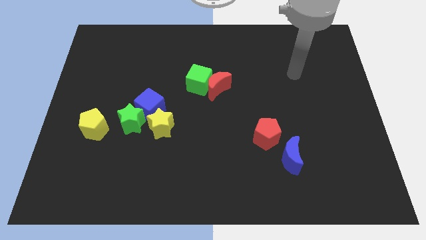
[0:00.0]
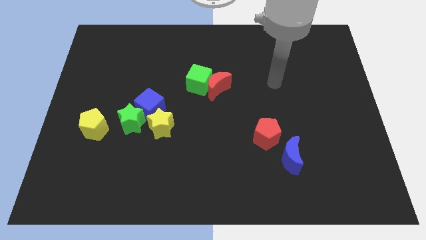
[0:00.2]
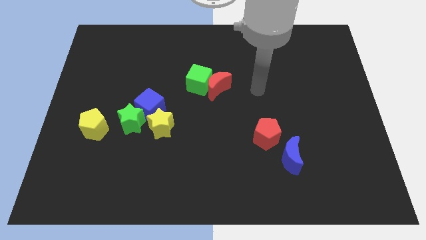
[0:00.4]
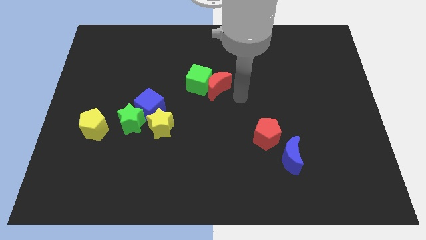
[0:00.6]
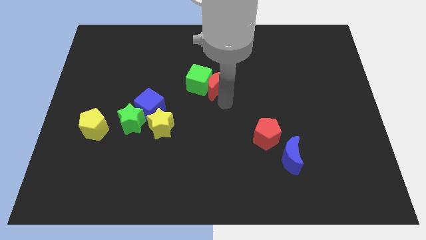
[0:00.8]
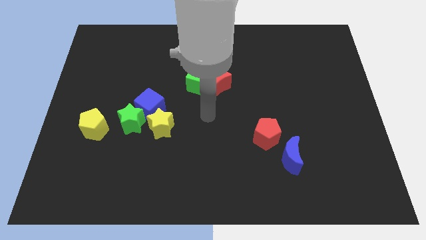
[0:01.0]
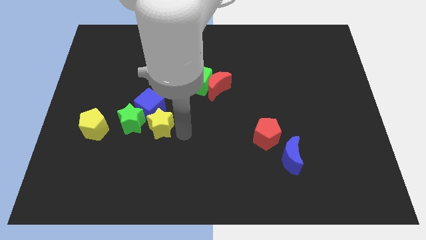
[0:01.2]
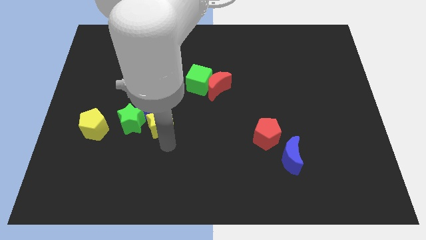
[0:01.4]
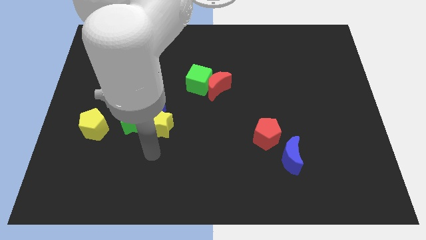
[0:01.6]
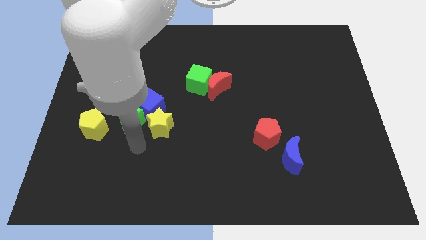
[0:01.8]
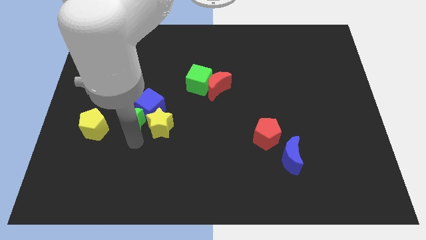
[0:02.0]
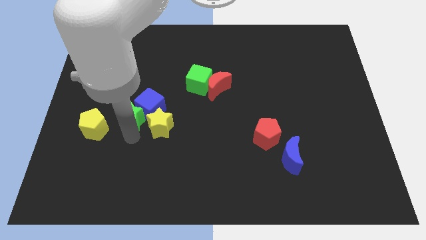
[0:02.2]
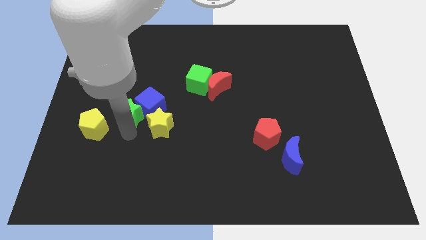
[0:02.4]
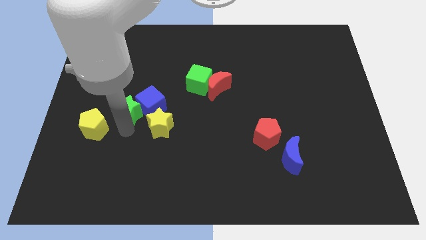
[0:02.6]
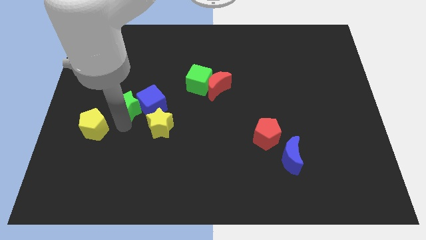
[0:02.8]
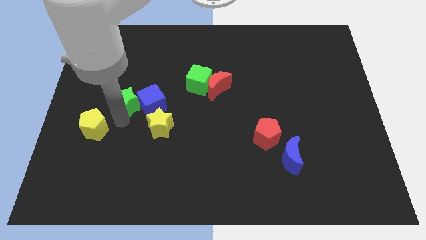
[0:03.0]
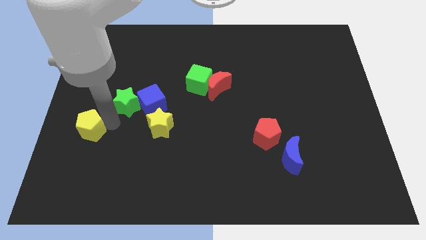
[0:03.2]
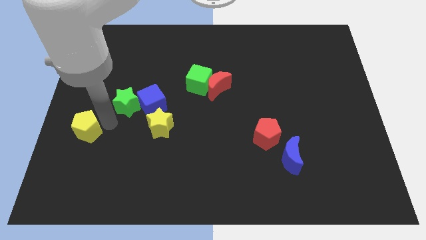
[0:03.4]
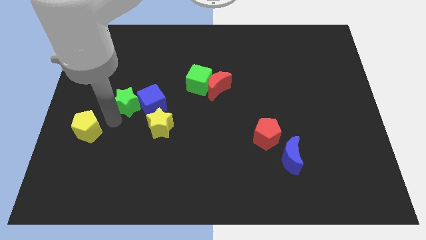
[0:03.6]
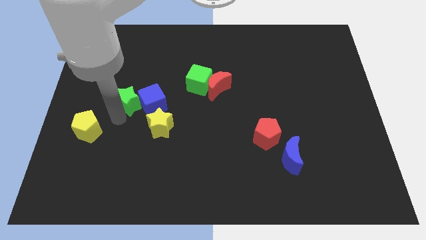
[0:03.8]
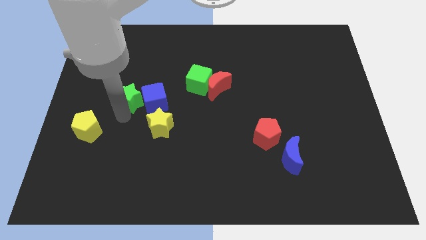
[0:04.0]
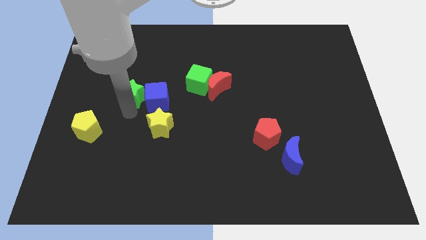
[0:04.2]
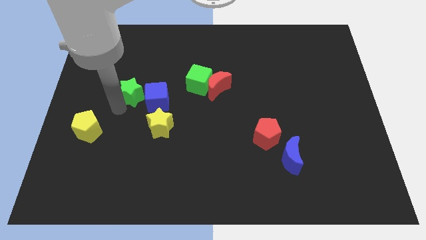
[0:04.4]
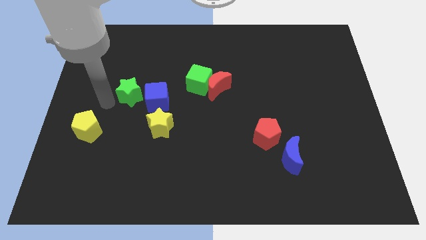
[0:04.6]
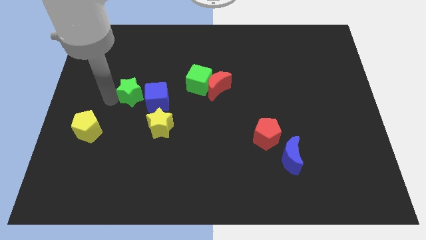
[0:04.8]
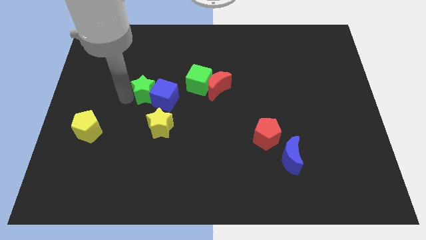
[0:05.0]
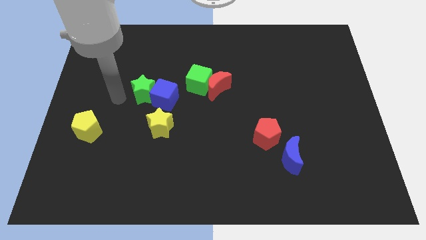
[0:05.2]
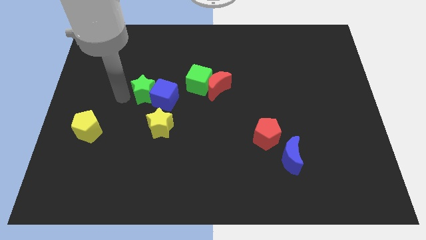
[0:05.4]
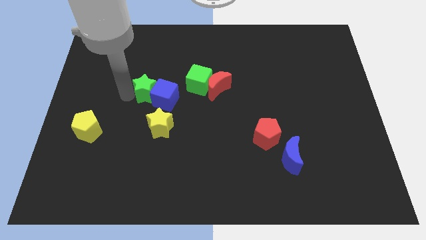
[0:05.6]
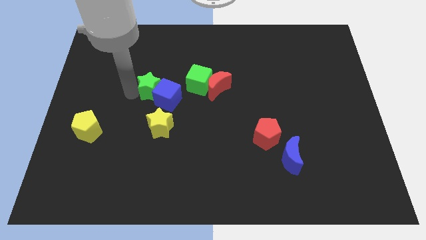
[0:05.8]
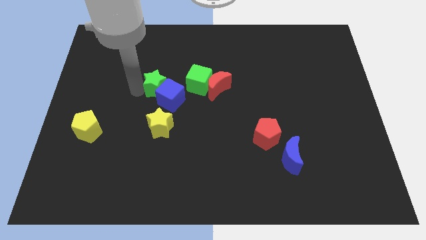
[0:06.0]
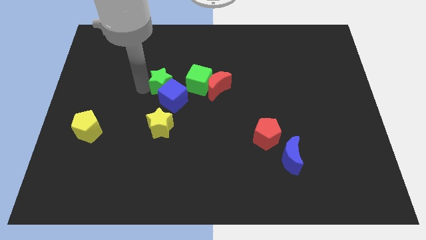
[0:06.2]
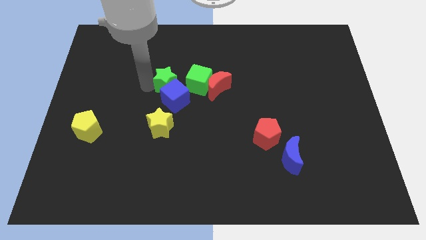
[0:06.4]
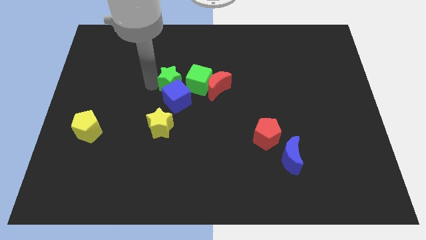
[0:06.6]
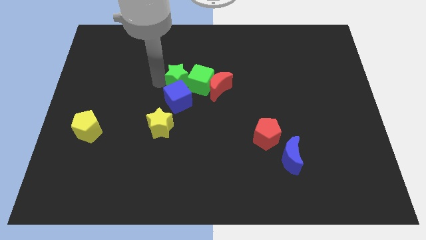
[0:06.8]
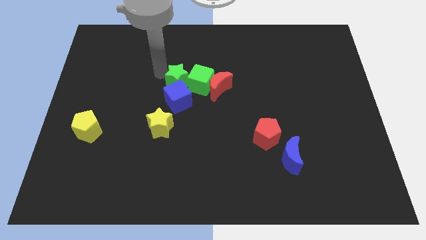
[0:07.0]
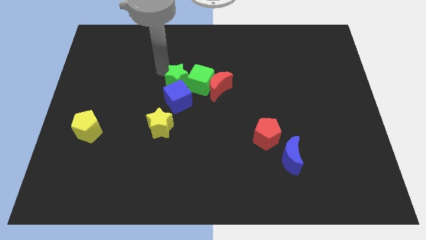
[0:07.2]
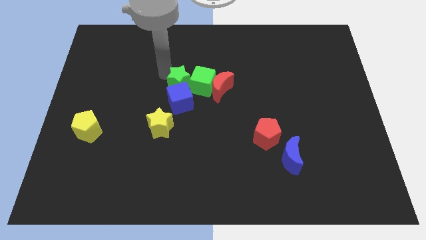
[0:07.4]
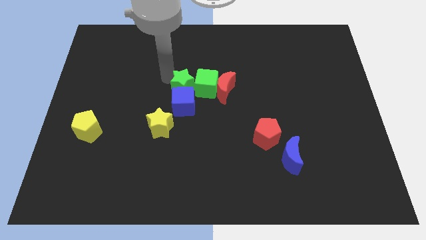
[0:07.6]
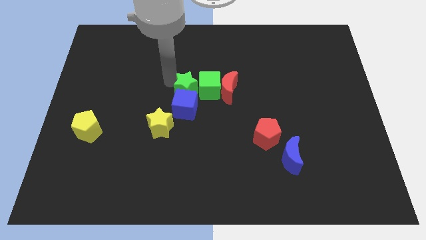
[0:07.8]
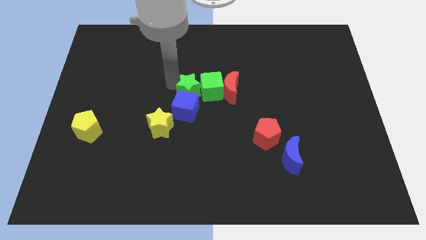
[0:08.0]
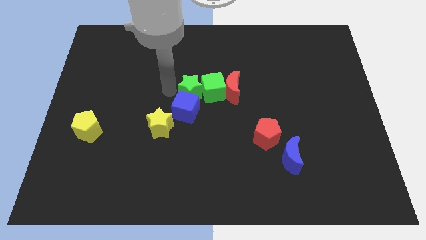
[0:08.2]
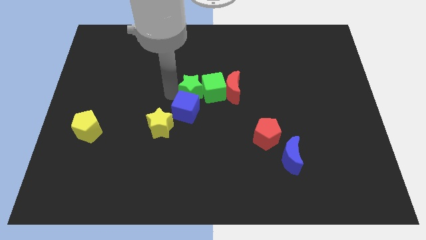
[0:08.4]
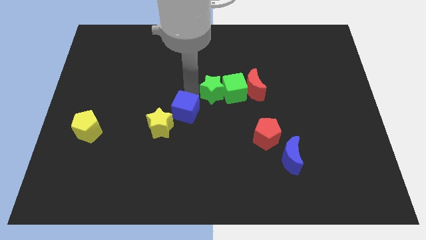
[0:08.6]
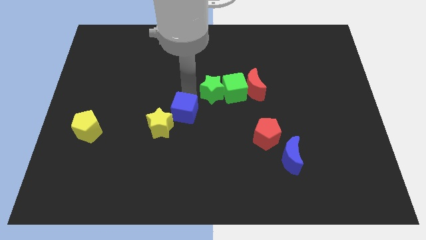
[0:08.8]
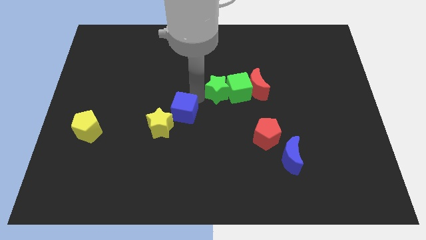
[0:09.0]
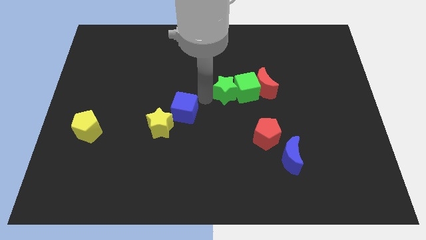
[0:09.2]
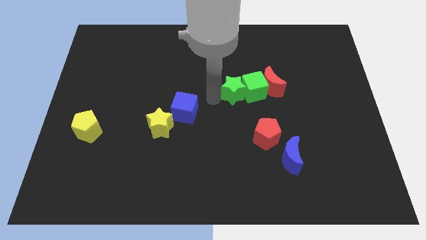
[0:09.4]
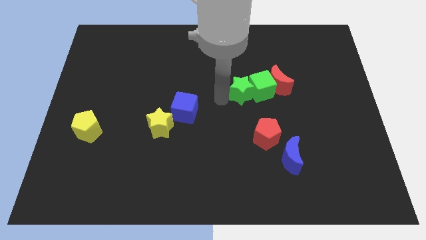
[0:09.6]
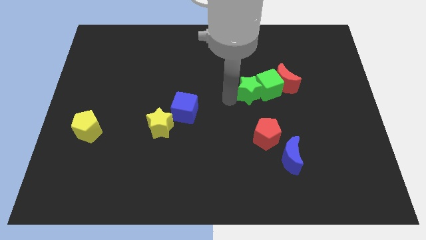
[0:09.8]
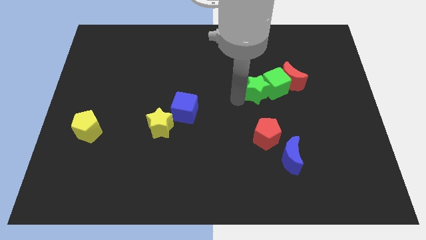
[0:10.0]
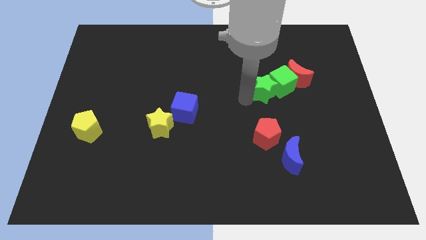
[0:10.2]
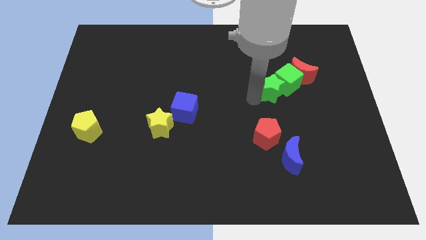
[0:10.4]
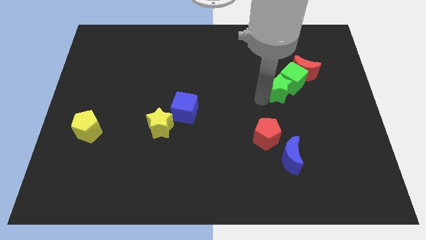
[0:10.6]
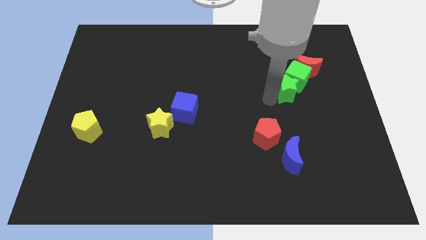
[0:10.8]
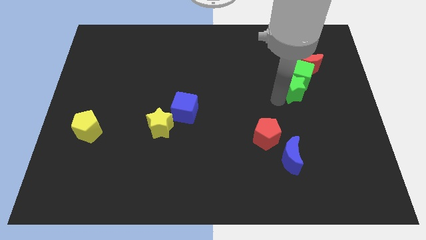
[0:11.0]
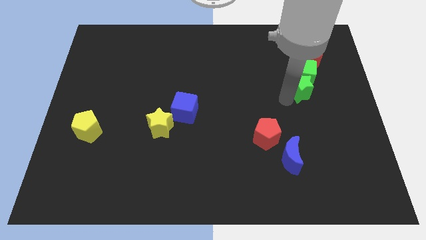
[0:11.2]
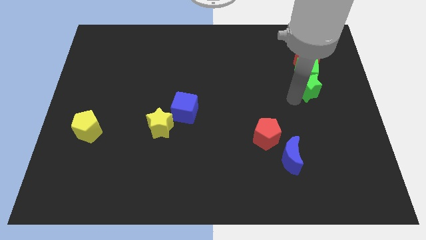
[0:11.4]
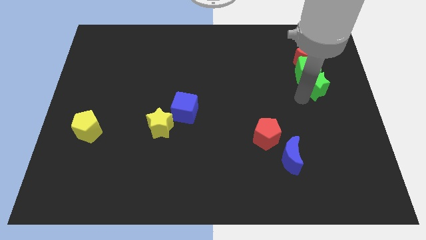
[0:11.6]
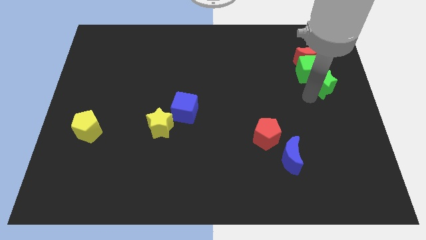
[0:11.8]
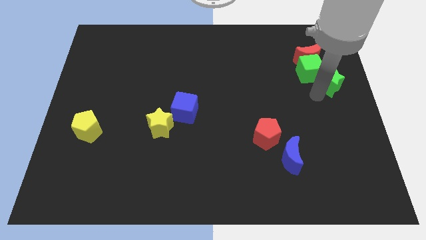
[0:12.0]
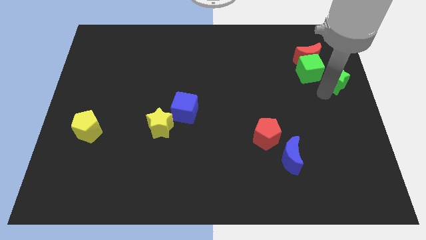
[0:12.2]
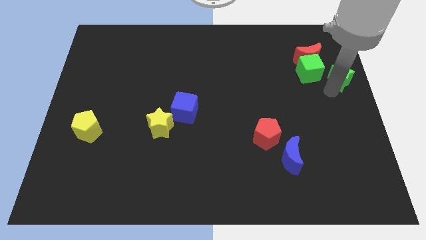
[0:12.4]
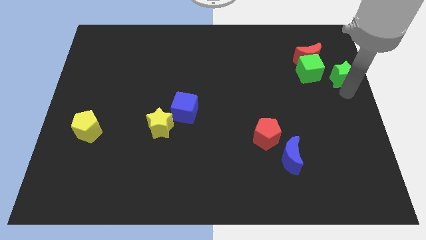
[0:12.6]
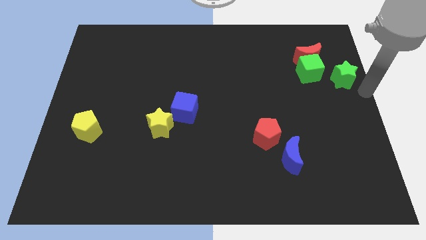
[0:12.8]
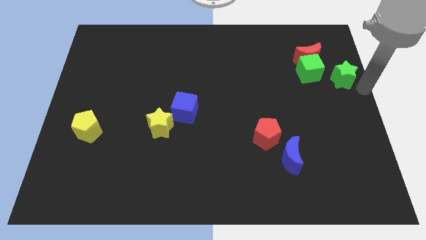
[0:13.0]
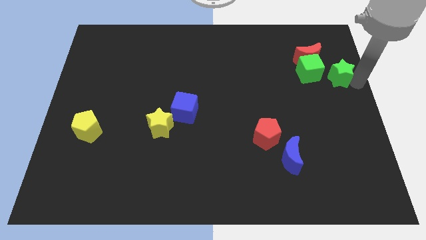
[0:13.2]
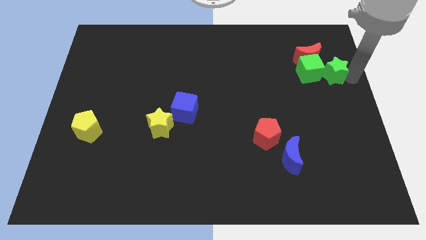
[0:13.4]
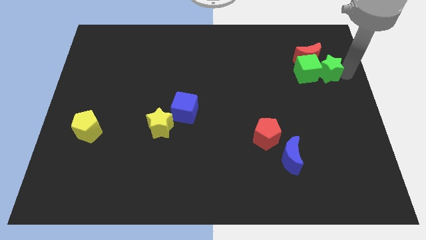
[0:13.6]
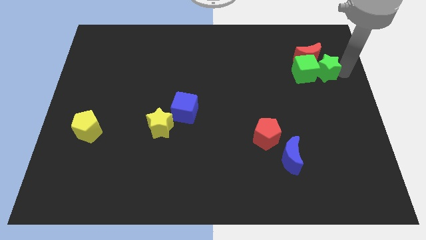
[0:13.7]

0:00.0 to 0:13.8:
move the green star next to the red moon

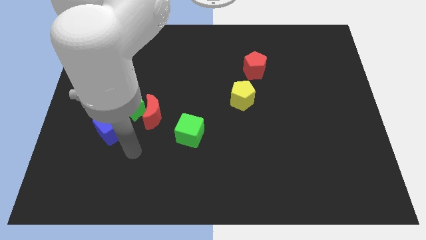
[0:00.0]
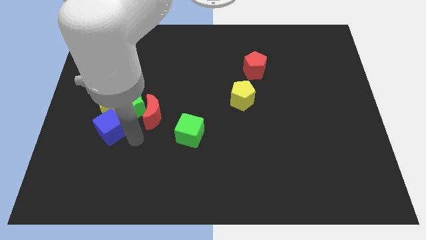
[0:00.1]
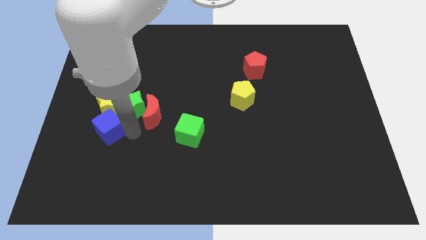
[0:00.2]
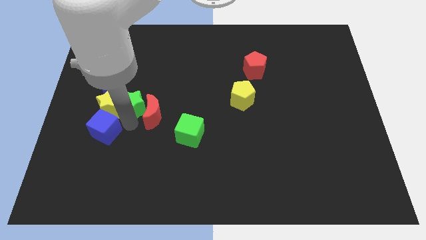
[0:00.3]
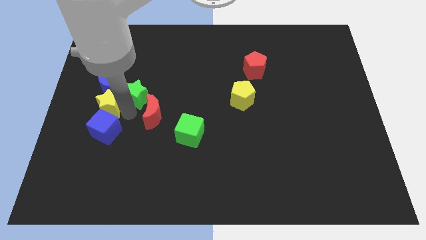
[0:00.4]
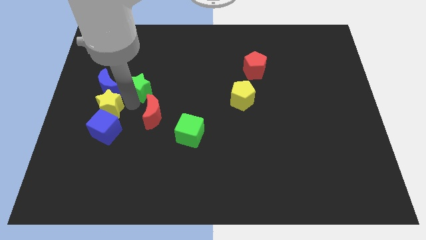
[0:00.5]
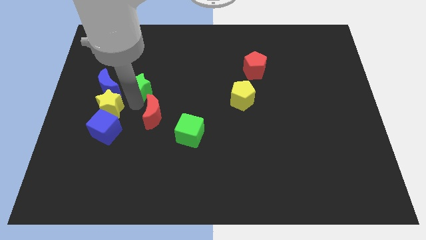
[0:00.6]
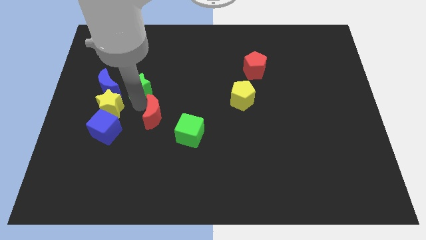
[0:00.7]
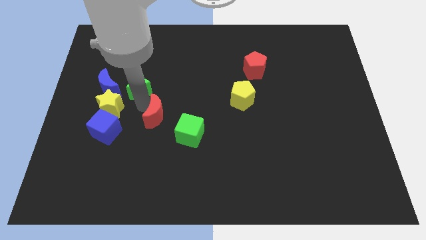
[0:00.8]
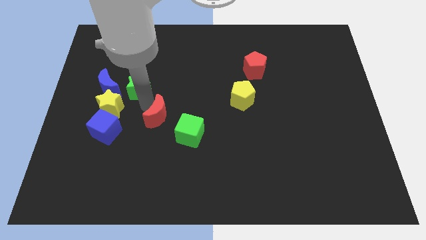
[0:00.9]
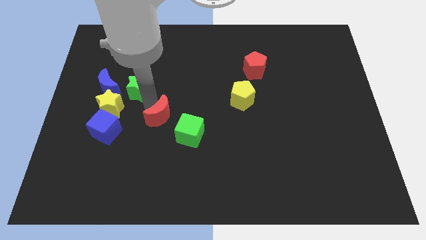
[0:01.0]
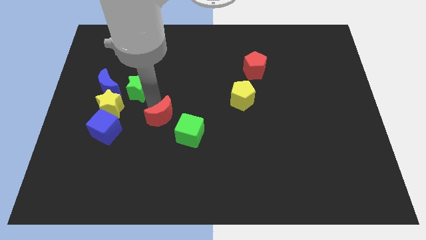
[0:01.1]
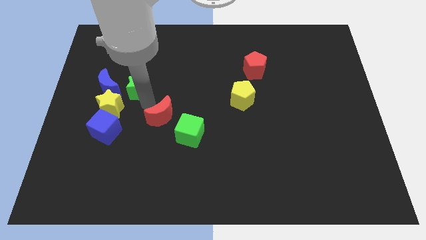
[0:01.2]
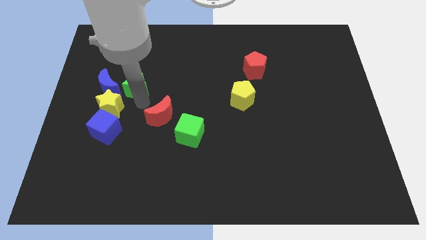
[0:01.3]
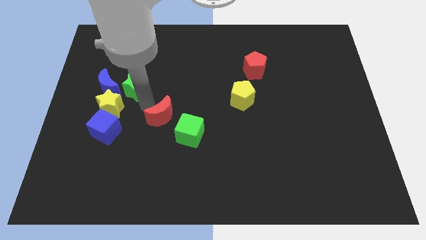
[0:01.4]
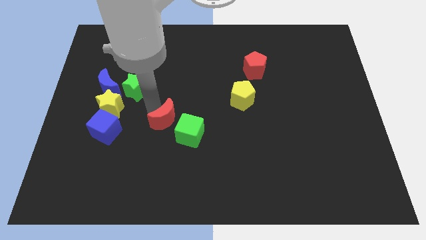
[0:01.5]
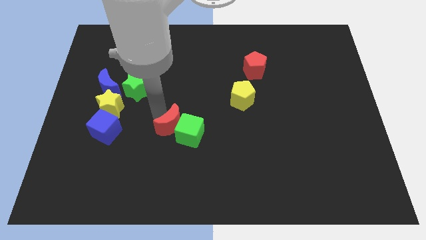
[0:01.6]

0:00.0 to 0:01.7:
slide the red moon next to the green cube
